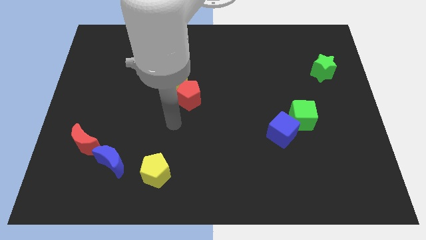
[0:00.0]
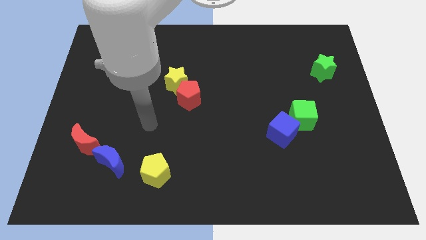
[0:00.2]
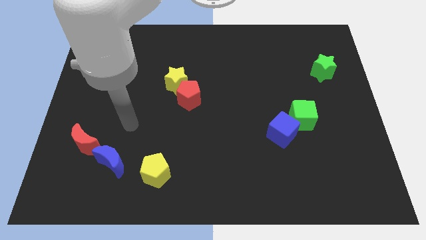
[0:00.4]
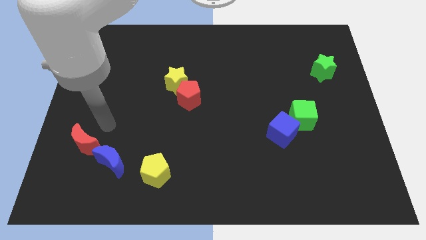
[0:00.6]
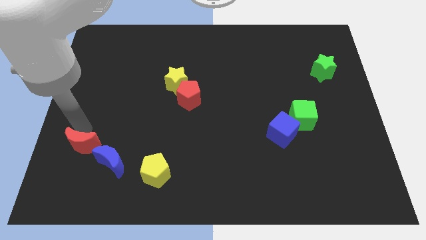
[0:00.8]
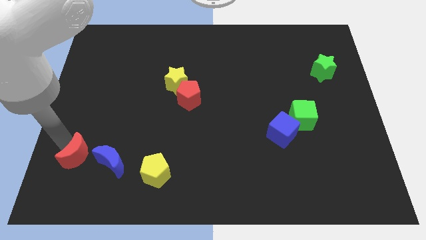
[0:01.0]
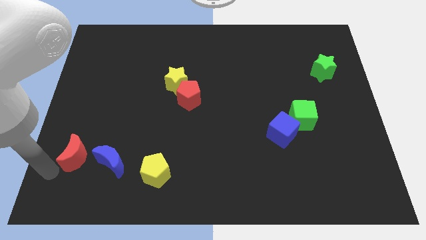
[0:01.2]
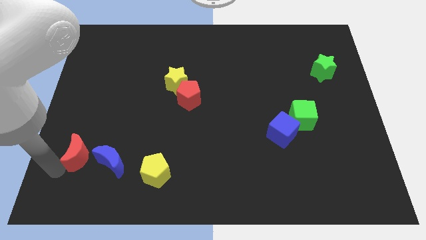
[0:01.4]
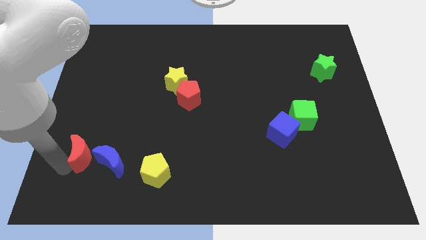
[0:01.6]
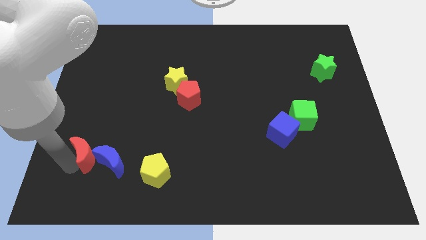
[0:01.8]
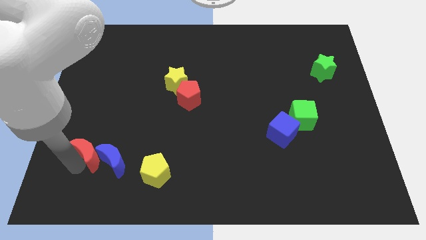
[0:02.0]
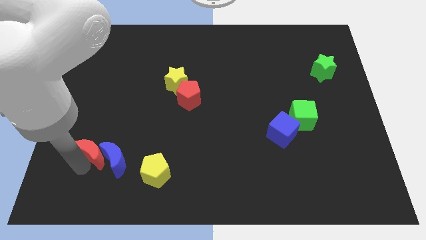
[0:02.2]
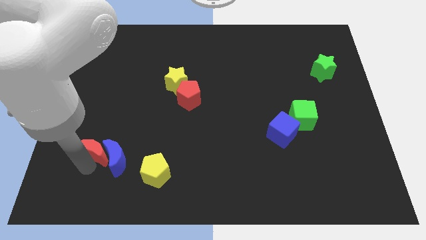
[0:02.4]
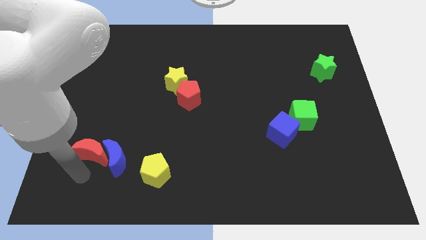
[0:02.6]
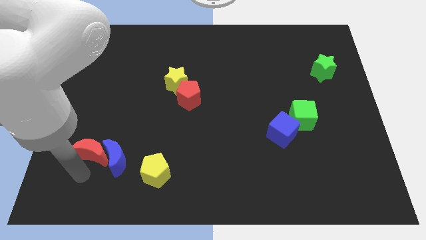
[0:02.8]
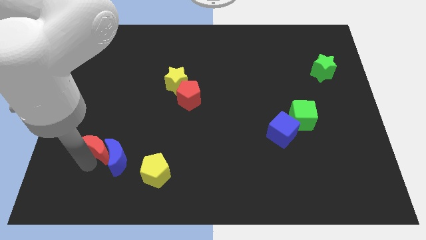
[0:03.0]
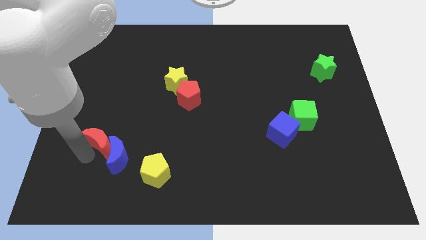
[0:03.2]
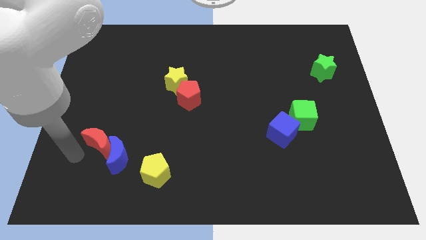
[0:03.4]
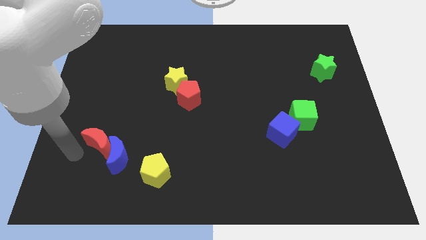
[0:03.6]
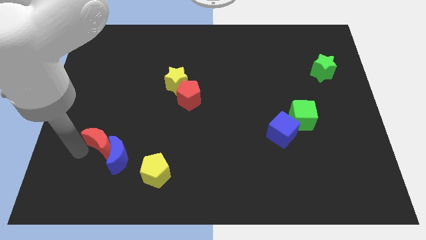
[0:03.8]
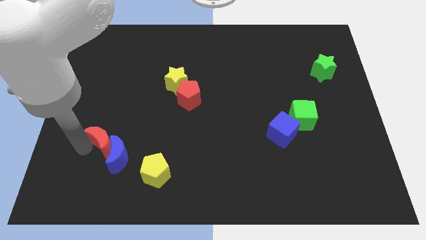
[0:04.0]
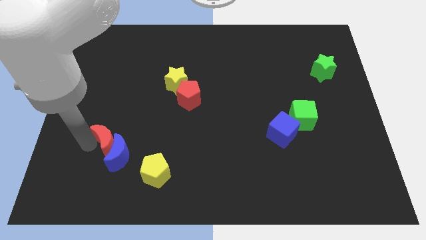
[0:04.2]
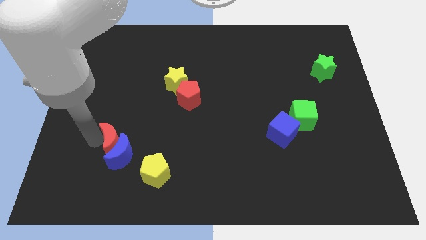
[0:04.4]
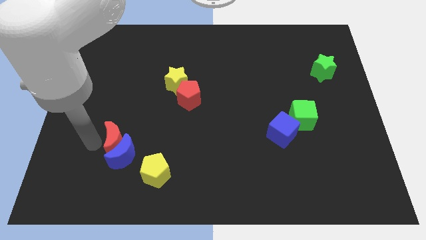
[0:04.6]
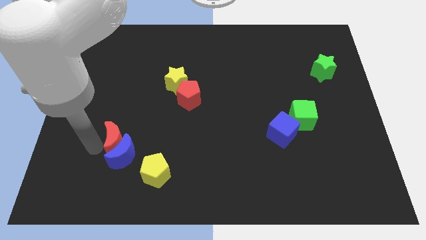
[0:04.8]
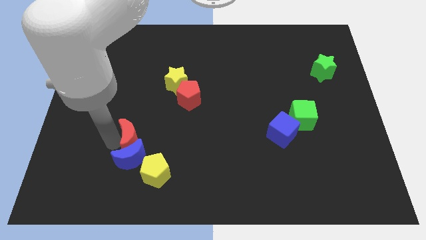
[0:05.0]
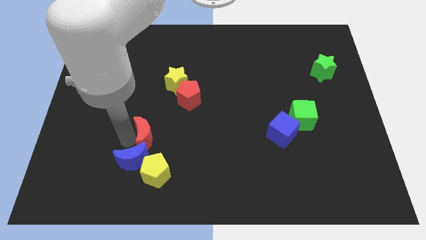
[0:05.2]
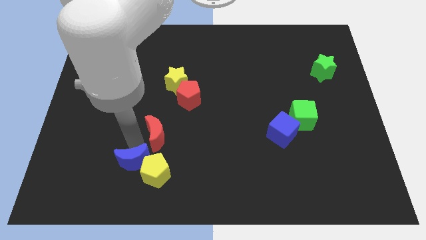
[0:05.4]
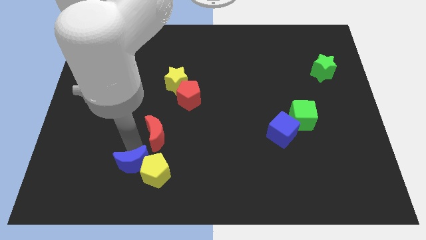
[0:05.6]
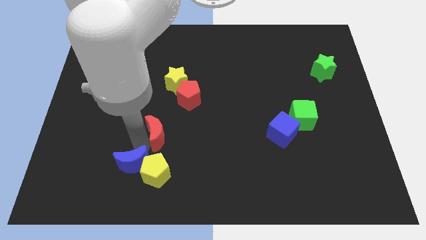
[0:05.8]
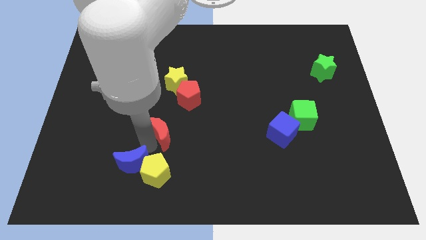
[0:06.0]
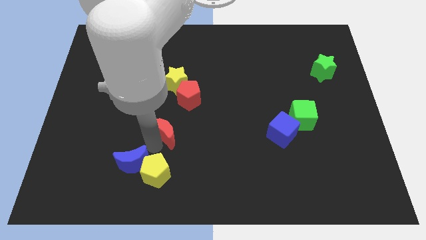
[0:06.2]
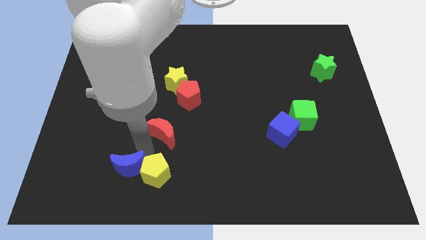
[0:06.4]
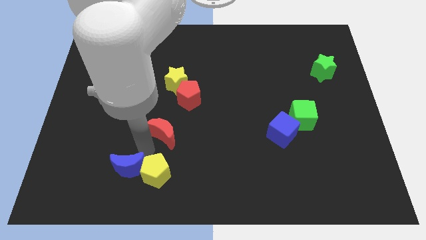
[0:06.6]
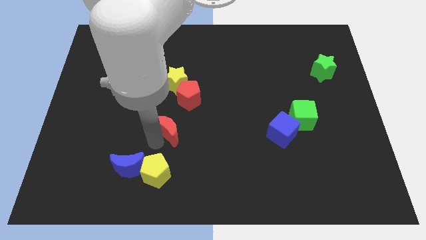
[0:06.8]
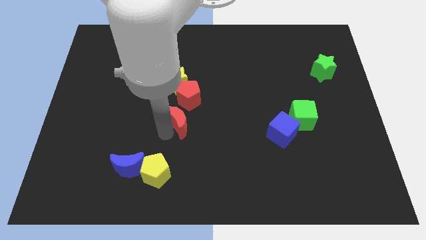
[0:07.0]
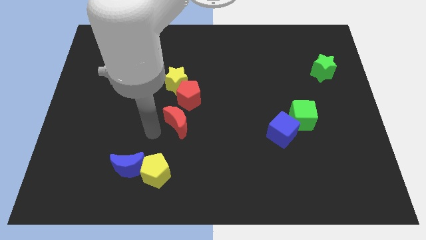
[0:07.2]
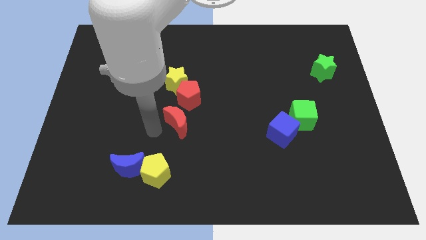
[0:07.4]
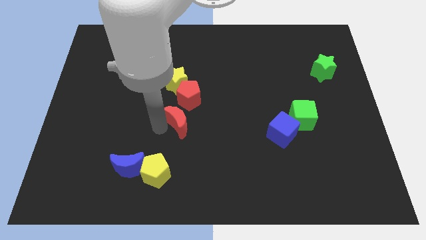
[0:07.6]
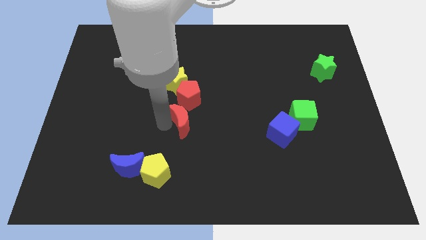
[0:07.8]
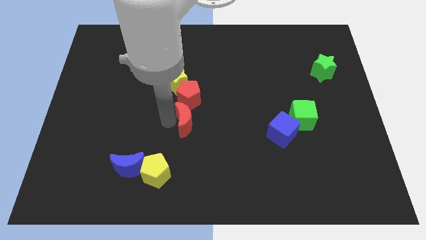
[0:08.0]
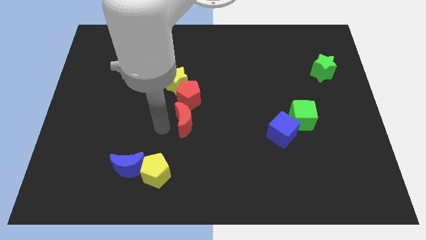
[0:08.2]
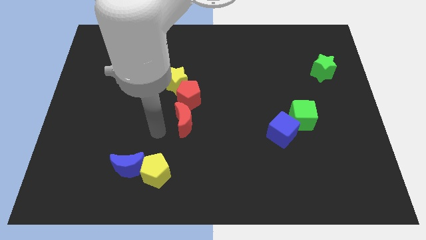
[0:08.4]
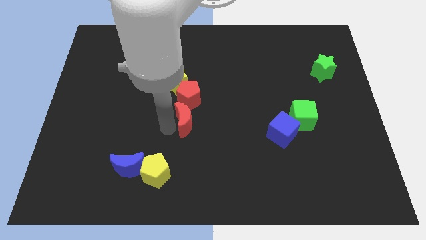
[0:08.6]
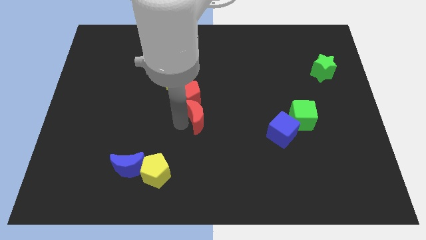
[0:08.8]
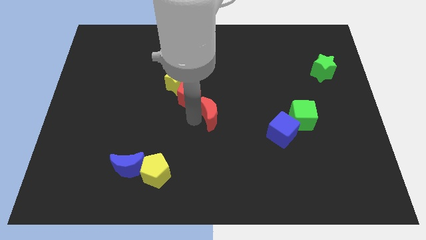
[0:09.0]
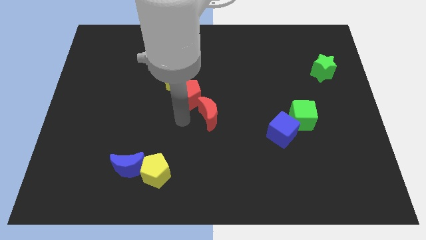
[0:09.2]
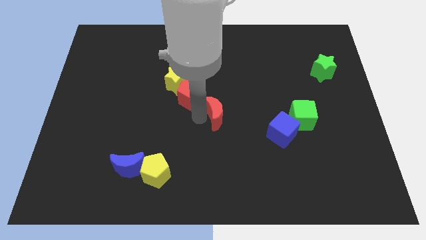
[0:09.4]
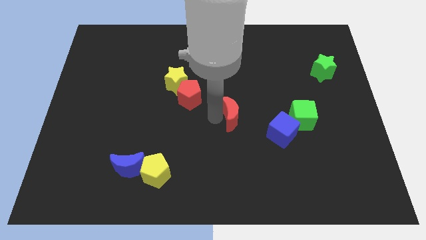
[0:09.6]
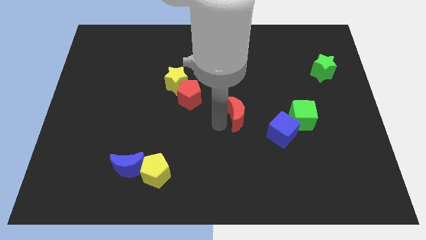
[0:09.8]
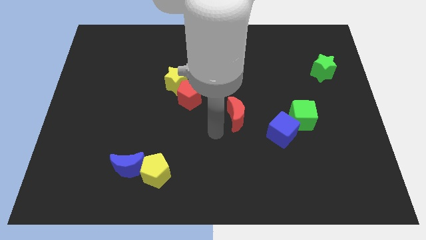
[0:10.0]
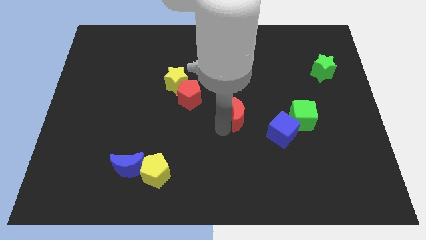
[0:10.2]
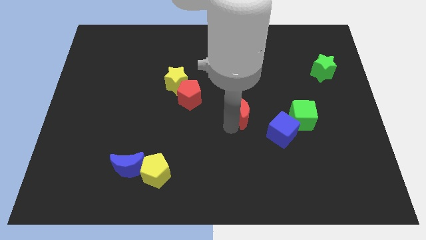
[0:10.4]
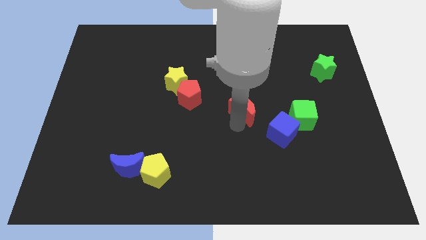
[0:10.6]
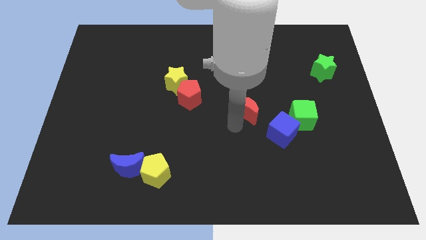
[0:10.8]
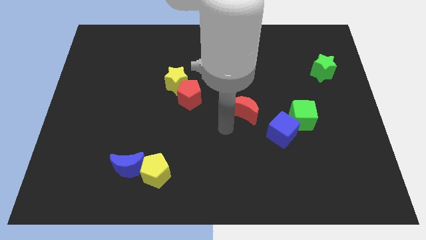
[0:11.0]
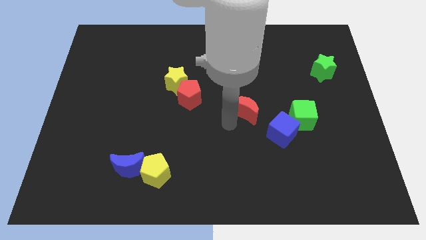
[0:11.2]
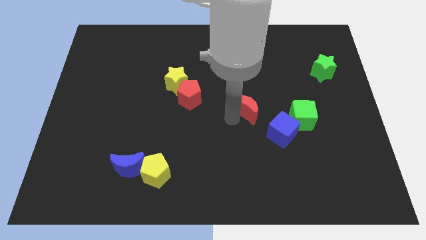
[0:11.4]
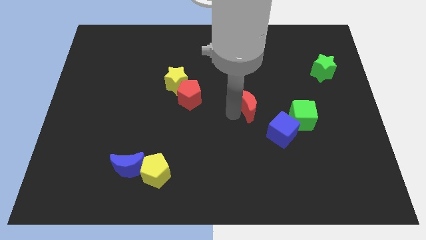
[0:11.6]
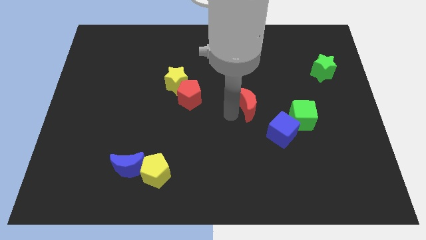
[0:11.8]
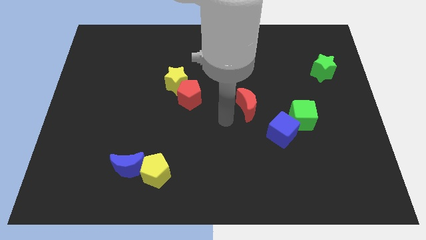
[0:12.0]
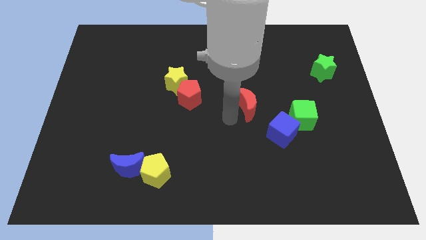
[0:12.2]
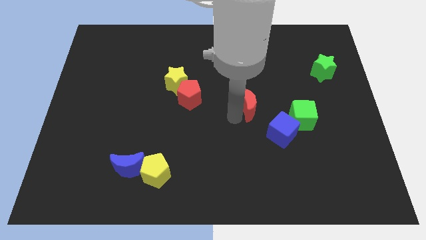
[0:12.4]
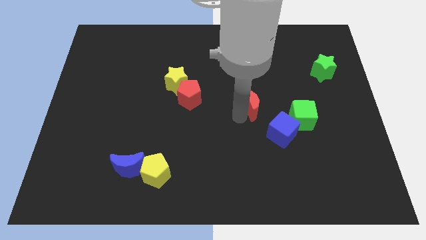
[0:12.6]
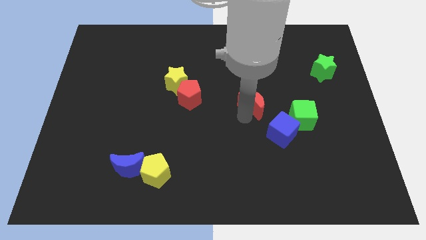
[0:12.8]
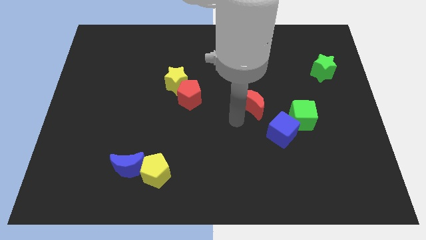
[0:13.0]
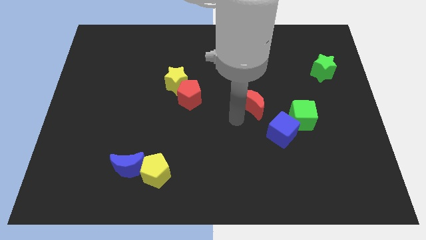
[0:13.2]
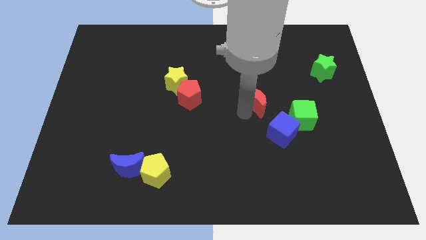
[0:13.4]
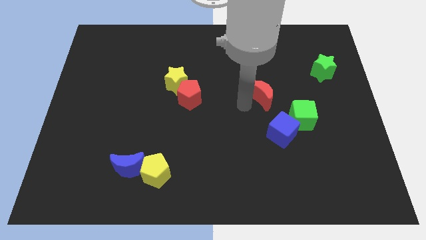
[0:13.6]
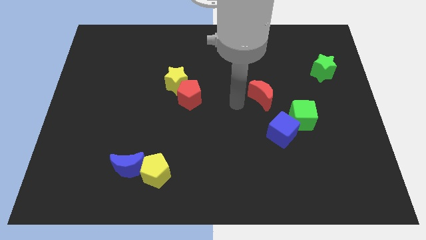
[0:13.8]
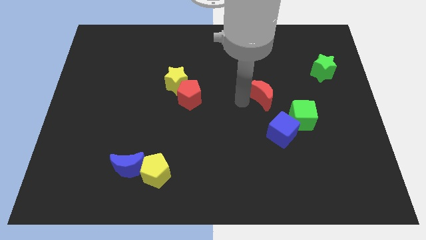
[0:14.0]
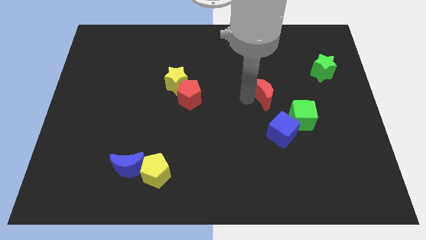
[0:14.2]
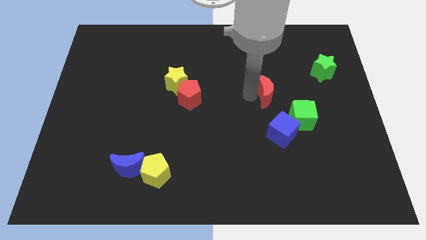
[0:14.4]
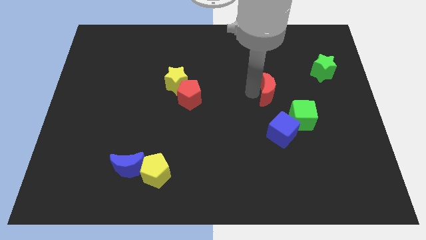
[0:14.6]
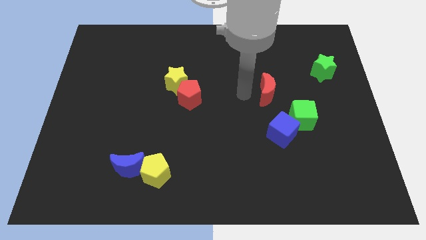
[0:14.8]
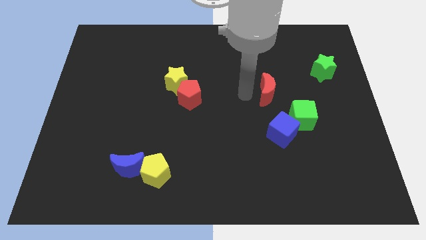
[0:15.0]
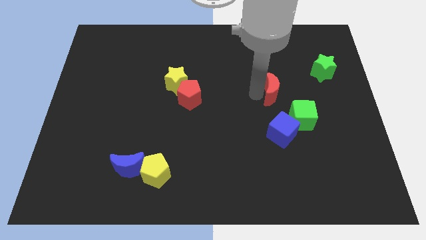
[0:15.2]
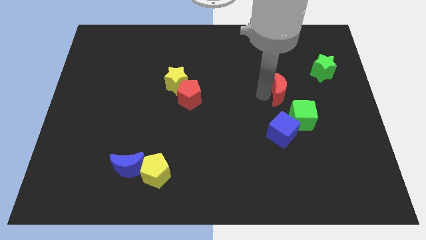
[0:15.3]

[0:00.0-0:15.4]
slide the red moon to the top of the green cube

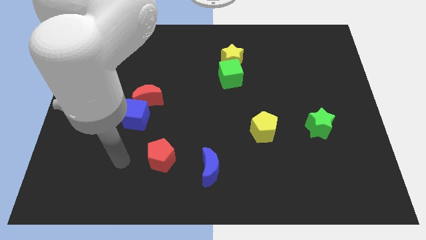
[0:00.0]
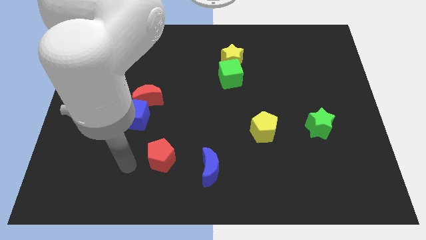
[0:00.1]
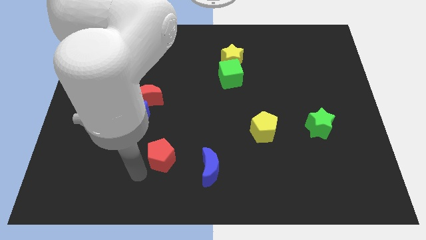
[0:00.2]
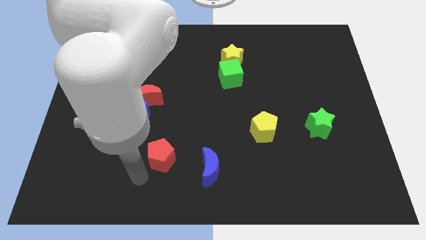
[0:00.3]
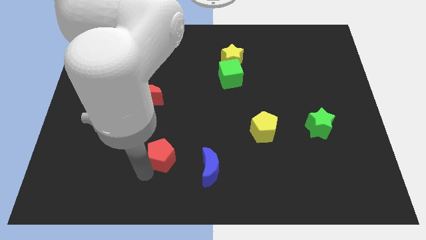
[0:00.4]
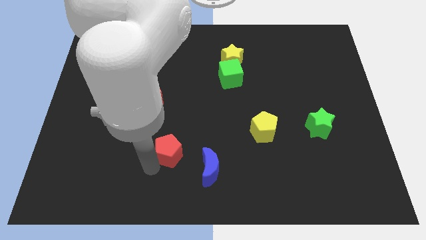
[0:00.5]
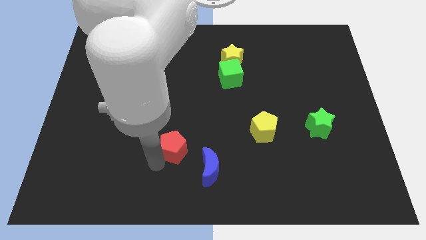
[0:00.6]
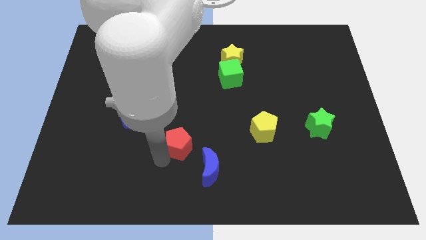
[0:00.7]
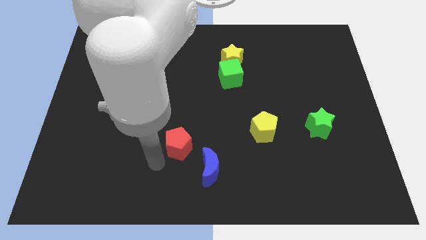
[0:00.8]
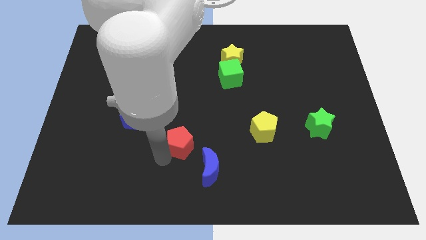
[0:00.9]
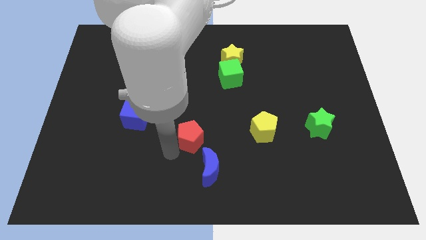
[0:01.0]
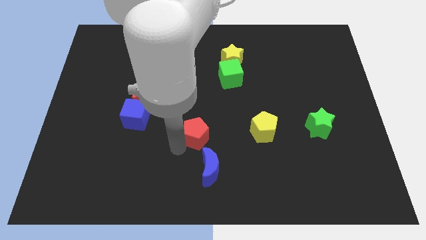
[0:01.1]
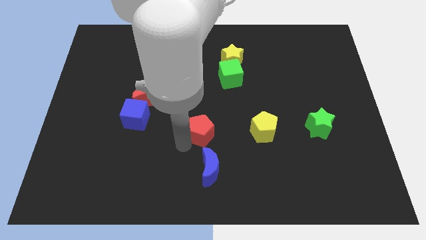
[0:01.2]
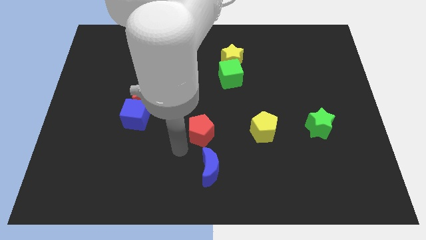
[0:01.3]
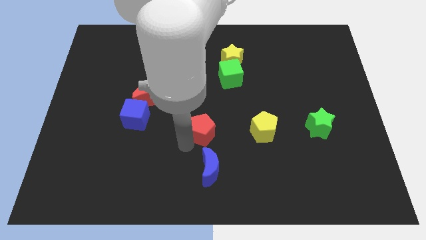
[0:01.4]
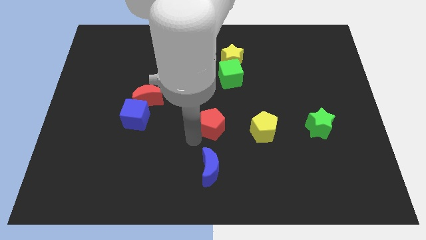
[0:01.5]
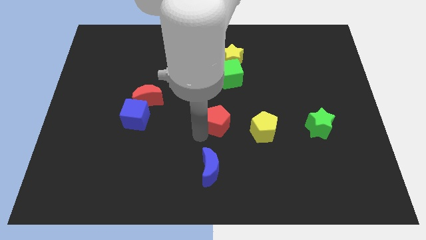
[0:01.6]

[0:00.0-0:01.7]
slide the red pentagon to the bottom of the green cube
